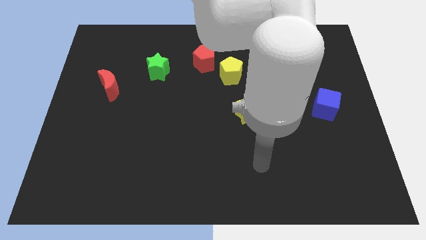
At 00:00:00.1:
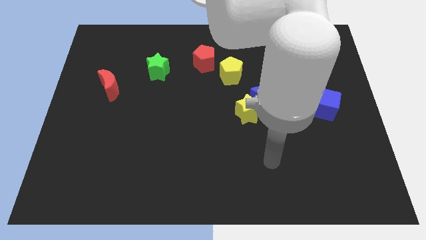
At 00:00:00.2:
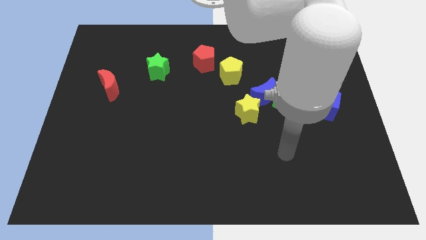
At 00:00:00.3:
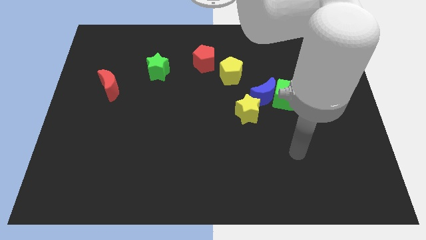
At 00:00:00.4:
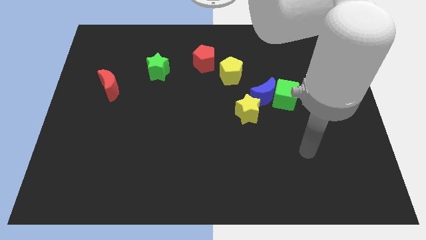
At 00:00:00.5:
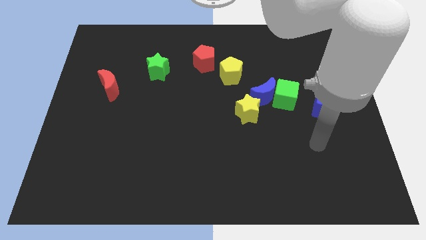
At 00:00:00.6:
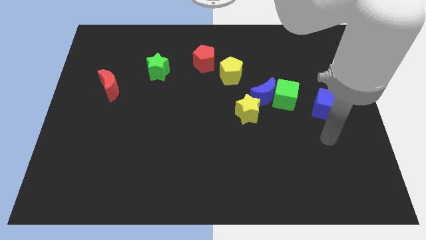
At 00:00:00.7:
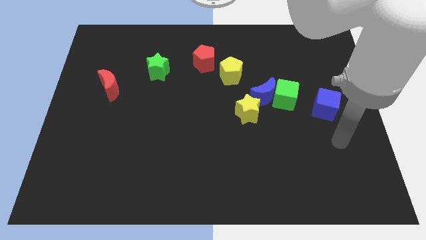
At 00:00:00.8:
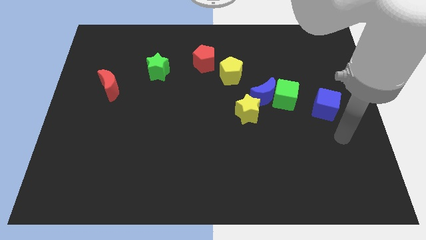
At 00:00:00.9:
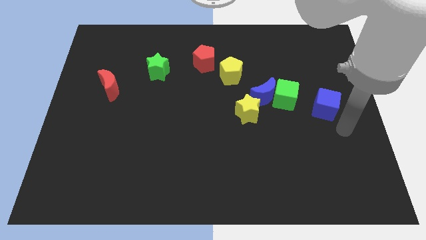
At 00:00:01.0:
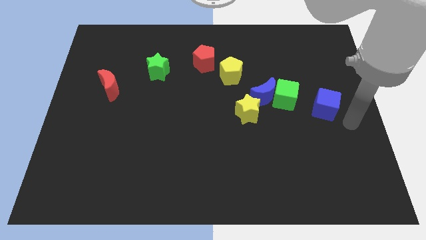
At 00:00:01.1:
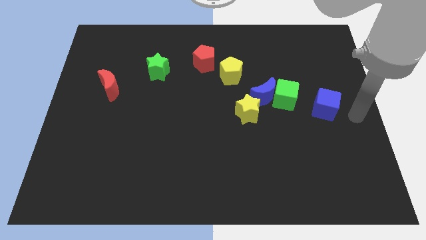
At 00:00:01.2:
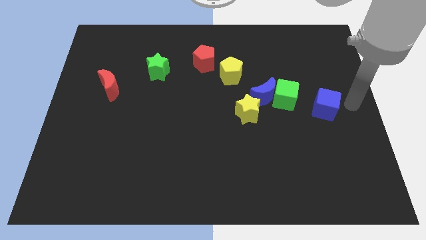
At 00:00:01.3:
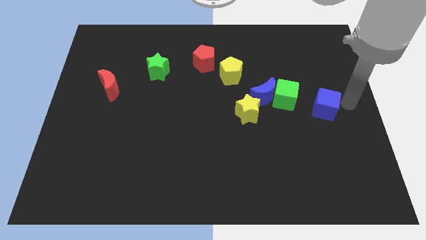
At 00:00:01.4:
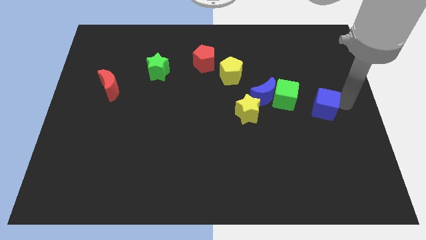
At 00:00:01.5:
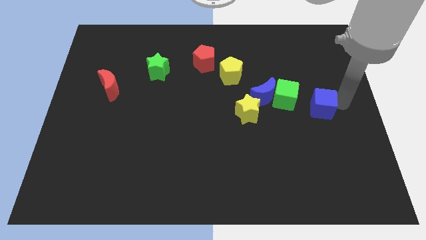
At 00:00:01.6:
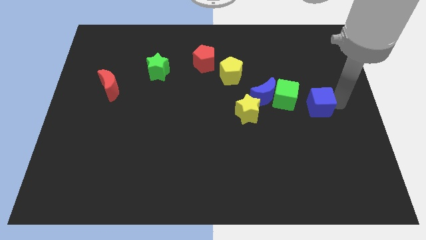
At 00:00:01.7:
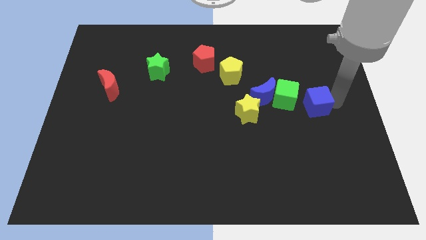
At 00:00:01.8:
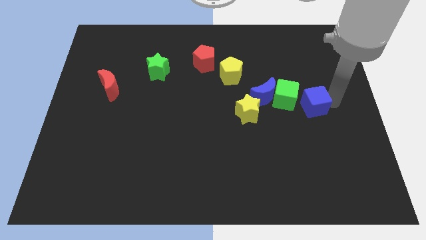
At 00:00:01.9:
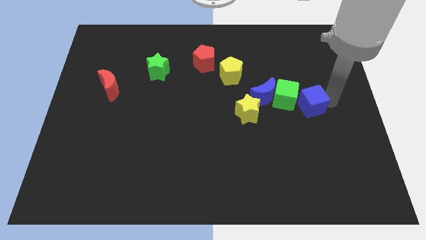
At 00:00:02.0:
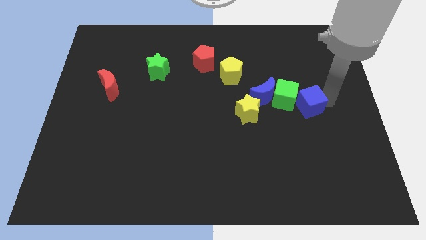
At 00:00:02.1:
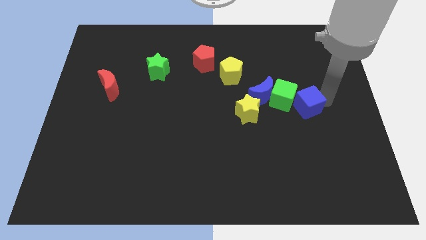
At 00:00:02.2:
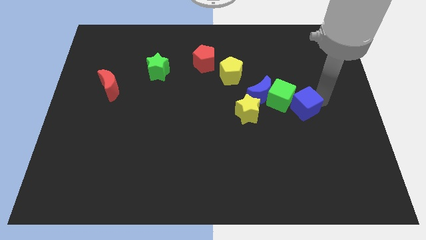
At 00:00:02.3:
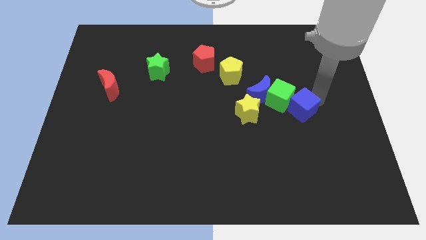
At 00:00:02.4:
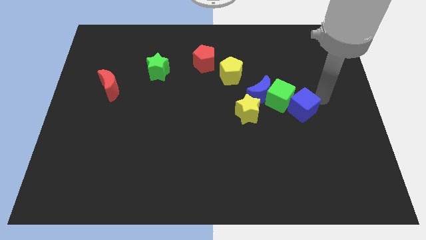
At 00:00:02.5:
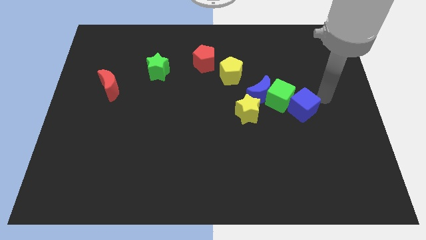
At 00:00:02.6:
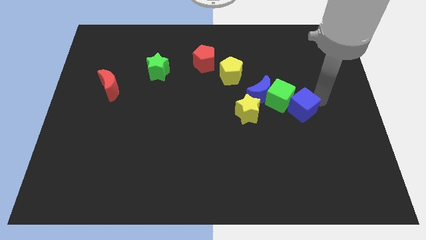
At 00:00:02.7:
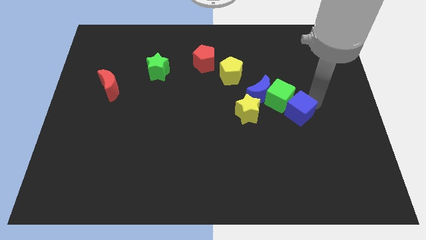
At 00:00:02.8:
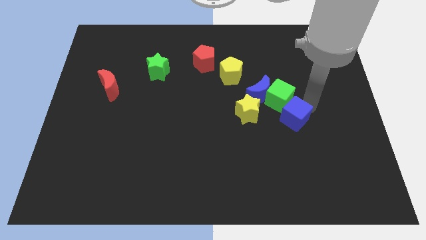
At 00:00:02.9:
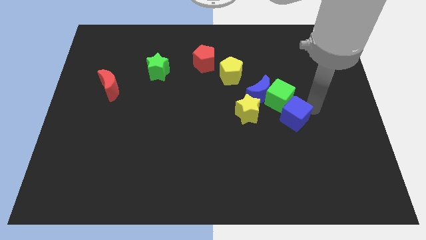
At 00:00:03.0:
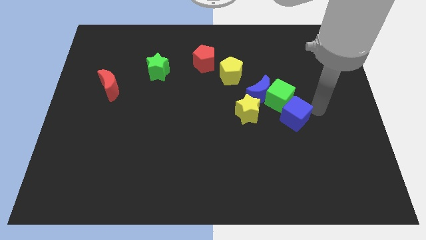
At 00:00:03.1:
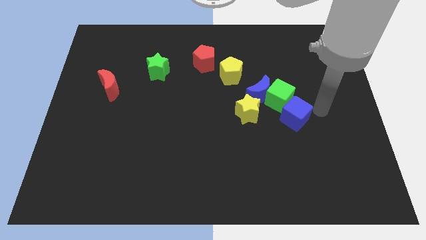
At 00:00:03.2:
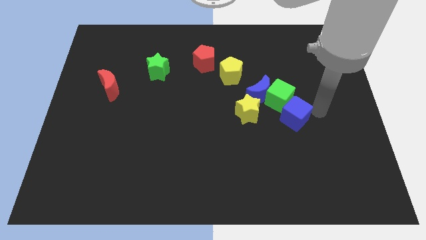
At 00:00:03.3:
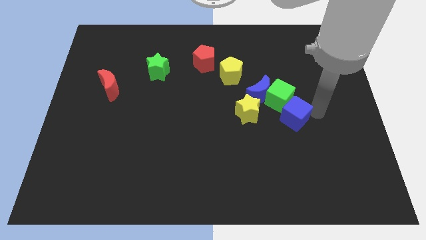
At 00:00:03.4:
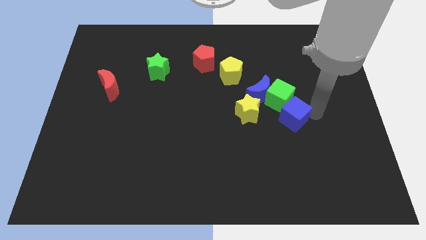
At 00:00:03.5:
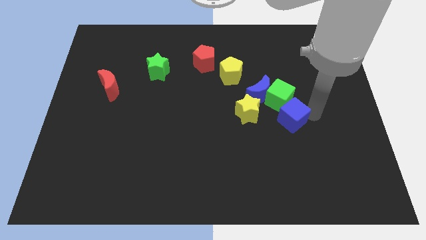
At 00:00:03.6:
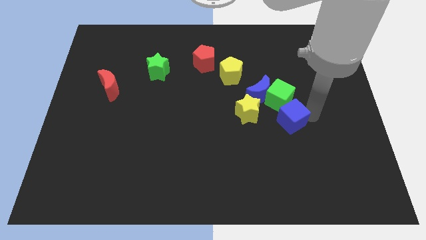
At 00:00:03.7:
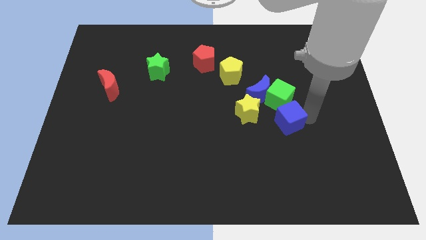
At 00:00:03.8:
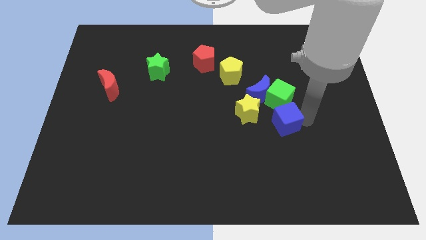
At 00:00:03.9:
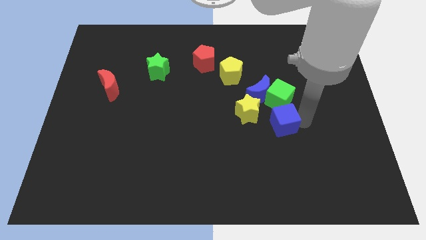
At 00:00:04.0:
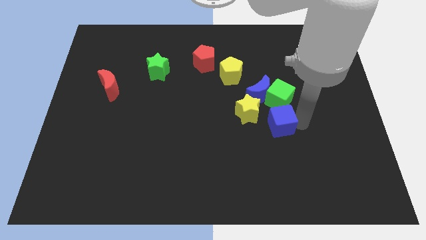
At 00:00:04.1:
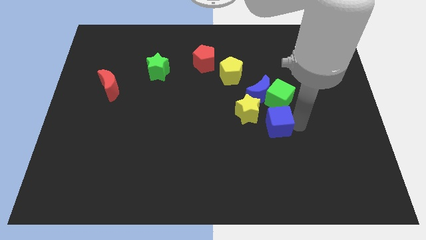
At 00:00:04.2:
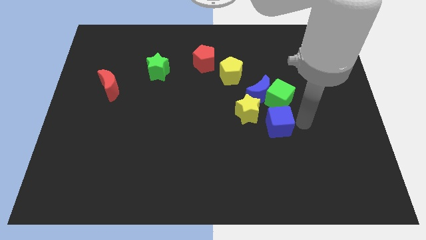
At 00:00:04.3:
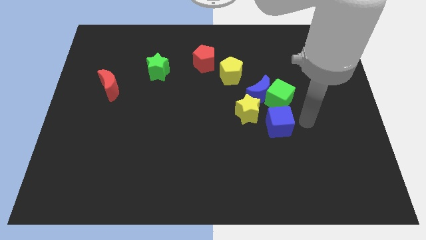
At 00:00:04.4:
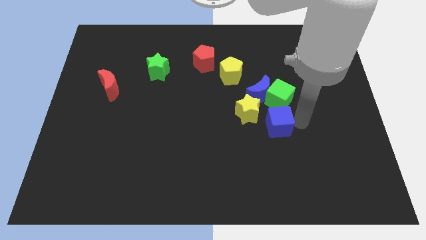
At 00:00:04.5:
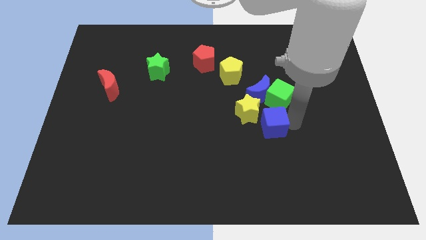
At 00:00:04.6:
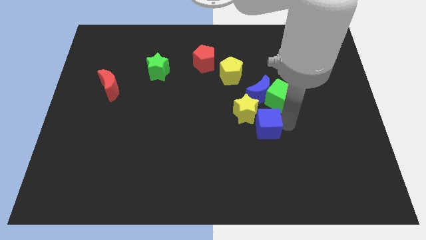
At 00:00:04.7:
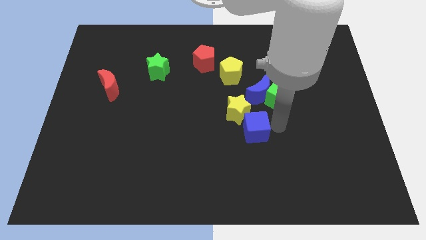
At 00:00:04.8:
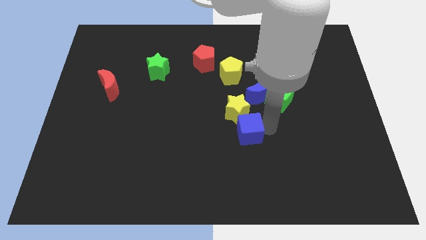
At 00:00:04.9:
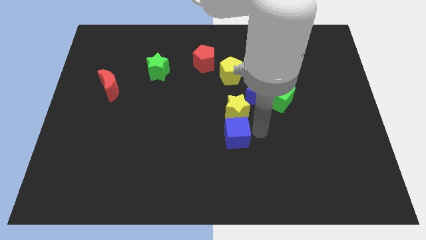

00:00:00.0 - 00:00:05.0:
move the blue cube to the bottom left of the yellow star

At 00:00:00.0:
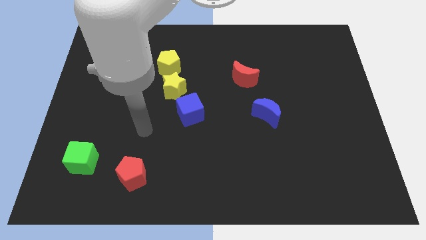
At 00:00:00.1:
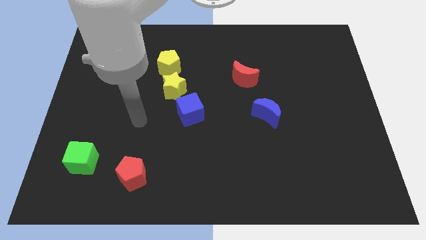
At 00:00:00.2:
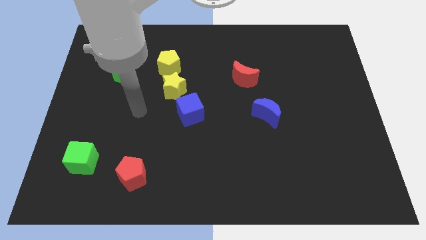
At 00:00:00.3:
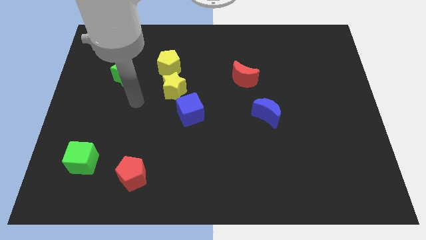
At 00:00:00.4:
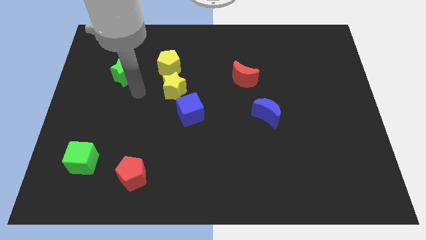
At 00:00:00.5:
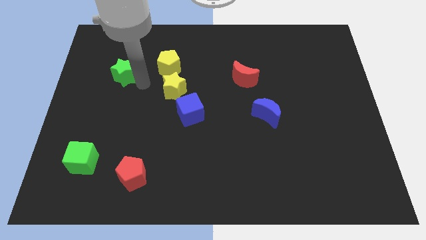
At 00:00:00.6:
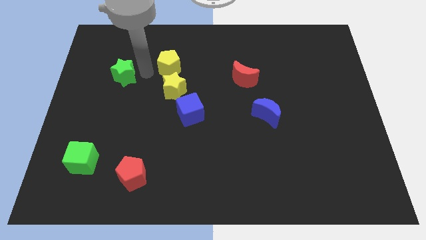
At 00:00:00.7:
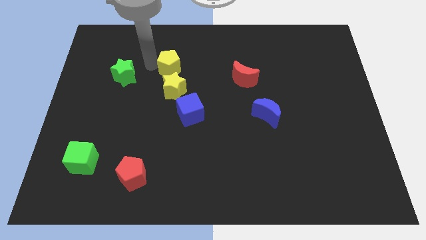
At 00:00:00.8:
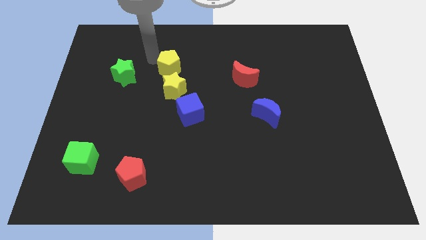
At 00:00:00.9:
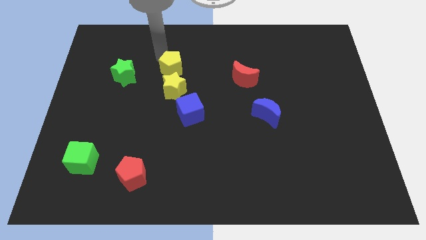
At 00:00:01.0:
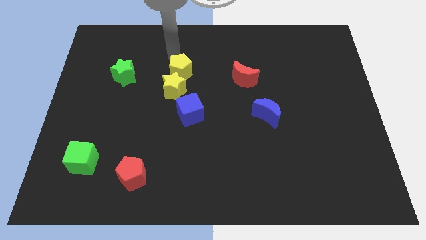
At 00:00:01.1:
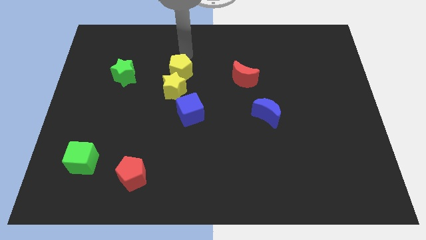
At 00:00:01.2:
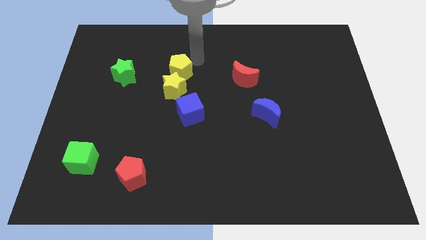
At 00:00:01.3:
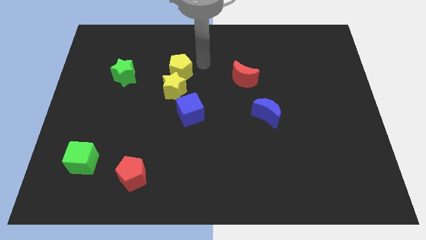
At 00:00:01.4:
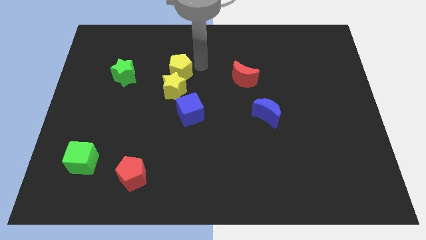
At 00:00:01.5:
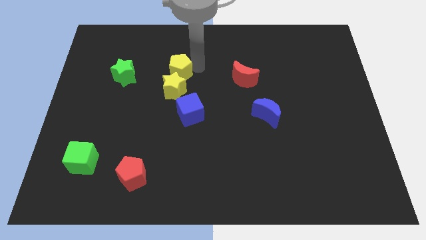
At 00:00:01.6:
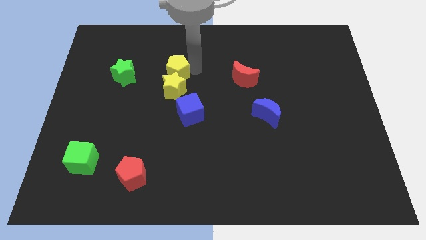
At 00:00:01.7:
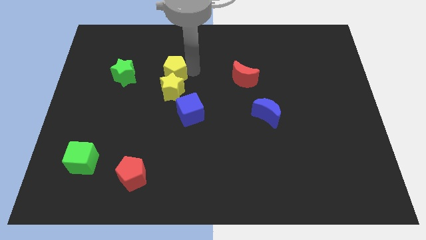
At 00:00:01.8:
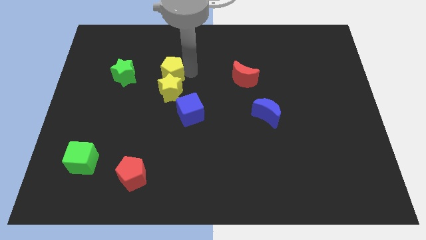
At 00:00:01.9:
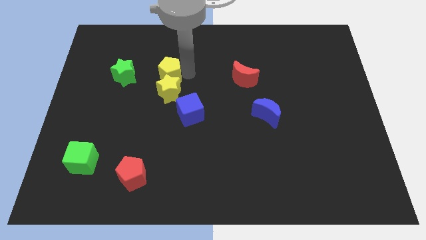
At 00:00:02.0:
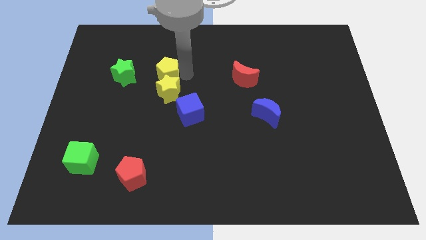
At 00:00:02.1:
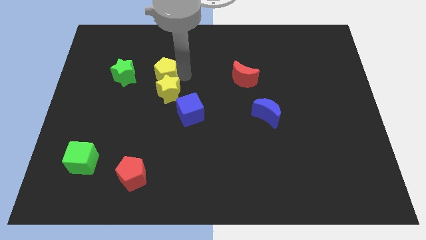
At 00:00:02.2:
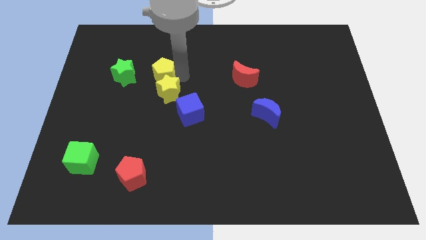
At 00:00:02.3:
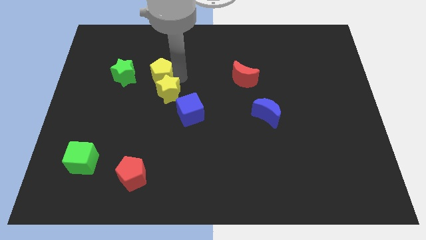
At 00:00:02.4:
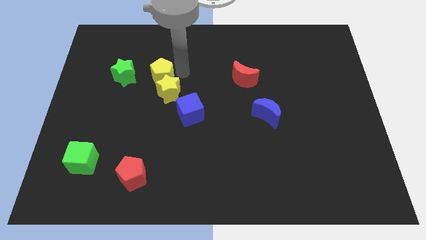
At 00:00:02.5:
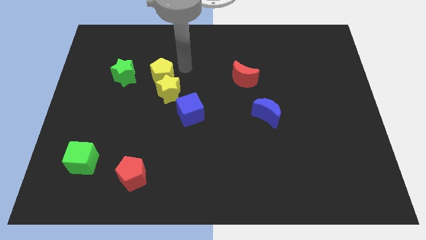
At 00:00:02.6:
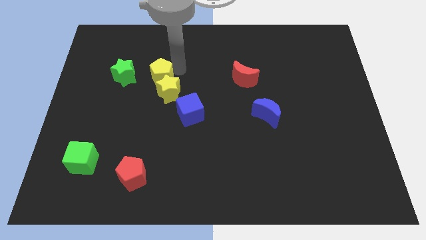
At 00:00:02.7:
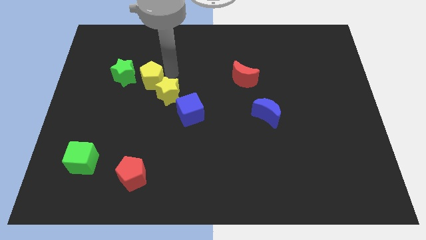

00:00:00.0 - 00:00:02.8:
slide the yellow pentagon to the left side of the yellow star
